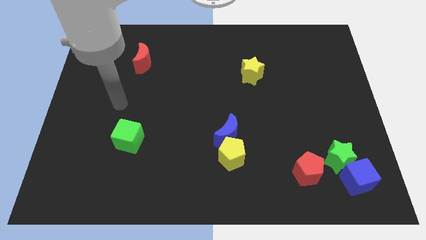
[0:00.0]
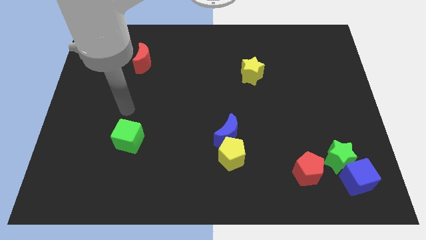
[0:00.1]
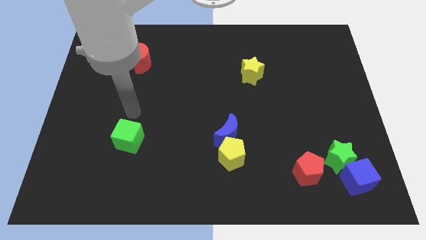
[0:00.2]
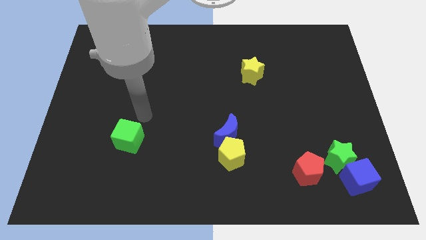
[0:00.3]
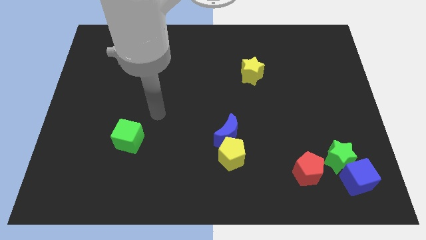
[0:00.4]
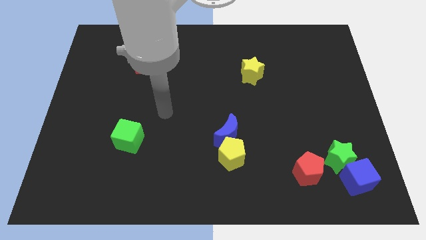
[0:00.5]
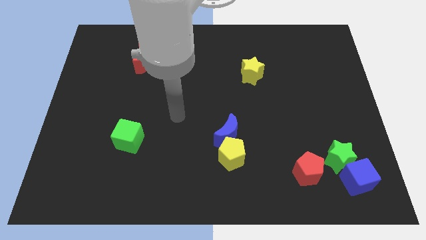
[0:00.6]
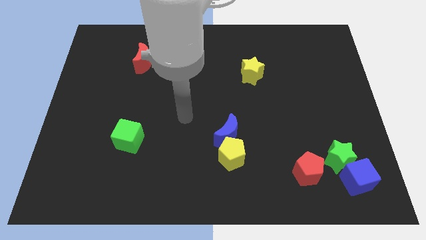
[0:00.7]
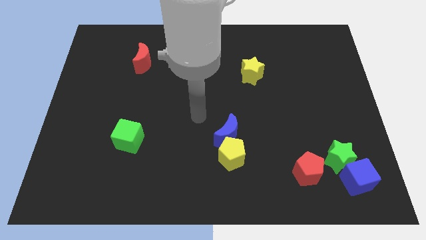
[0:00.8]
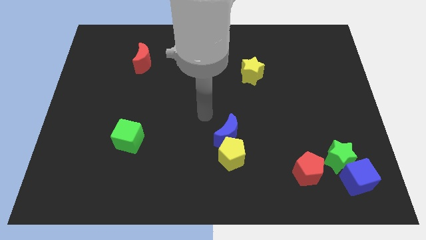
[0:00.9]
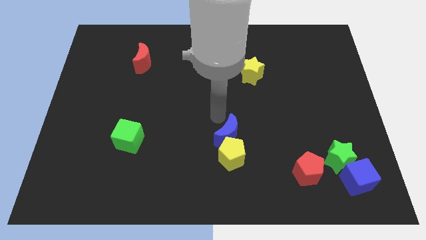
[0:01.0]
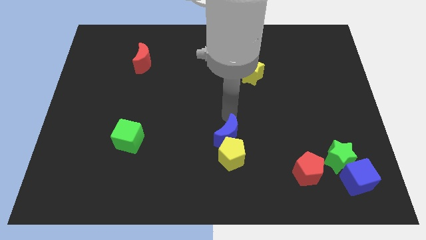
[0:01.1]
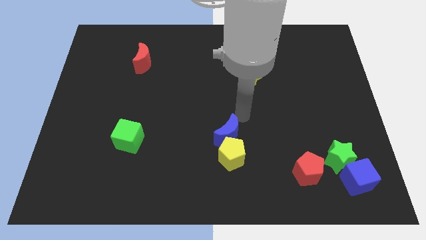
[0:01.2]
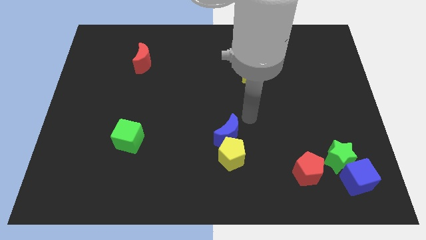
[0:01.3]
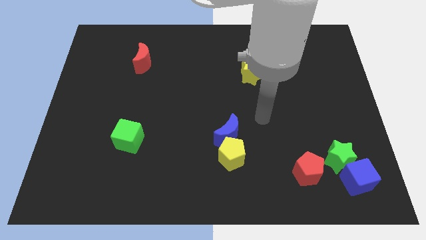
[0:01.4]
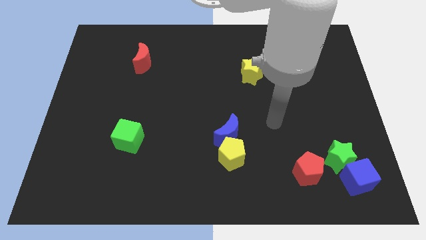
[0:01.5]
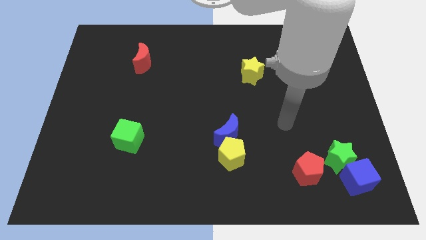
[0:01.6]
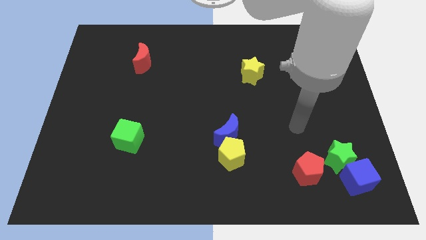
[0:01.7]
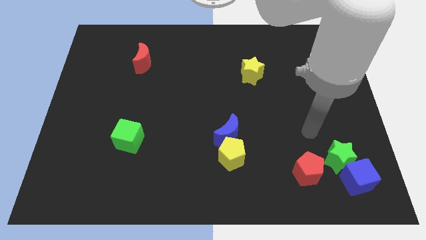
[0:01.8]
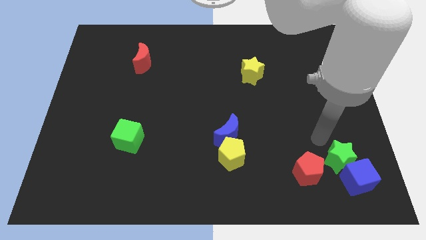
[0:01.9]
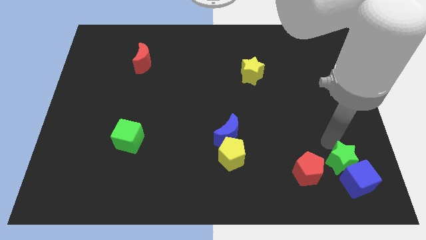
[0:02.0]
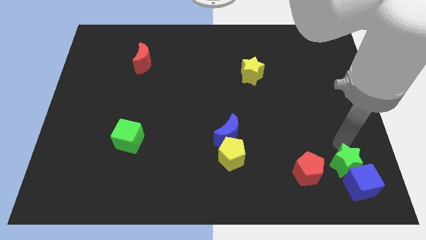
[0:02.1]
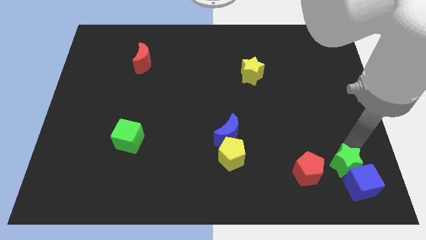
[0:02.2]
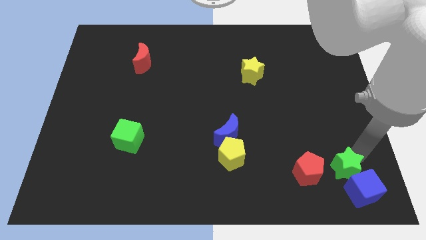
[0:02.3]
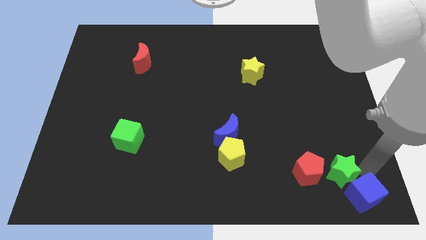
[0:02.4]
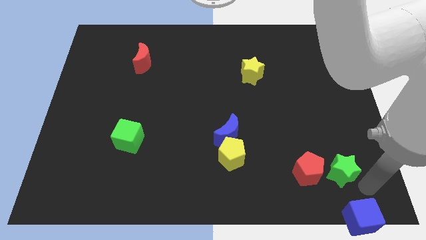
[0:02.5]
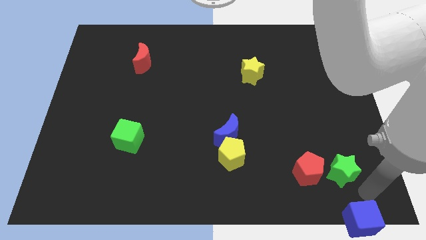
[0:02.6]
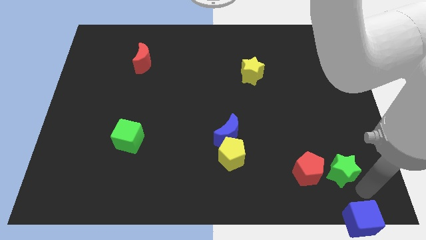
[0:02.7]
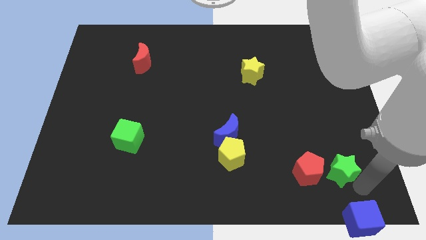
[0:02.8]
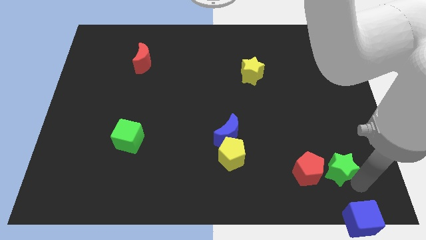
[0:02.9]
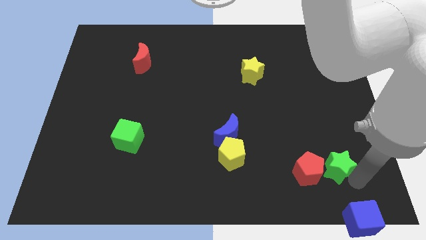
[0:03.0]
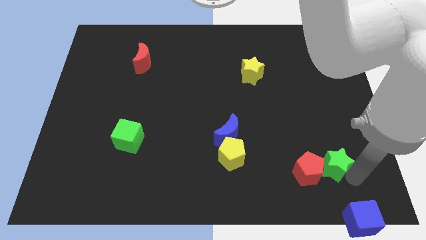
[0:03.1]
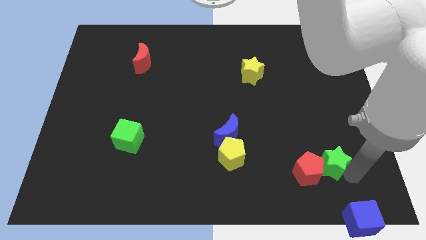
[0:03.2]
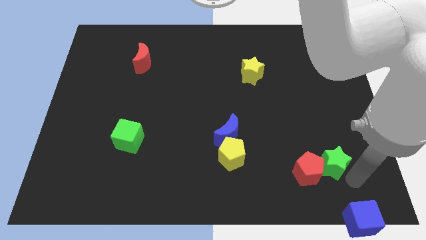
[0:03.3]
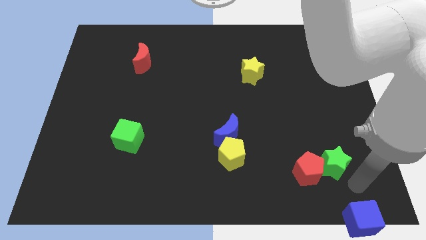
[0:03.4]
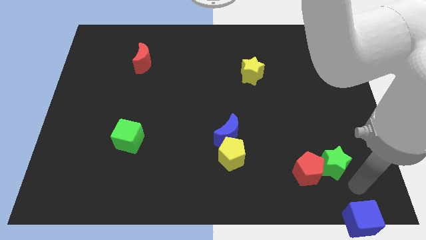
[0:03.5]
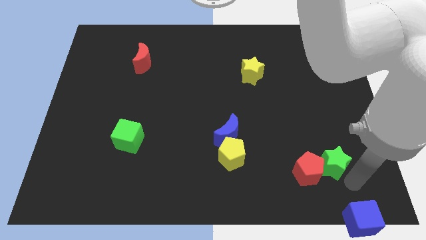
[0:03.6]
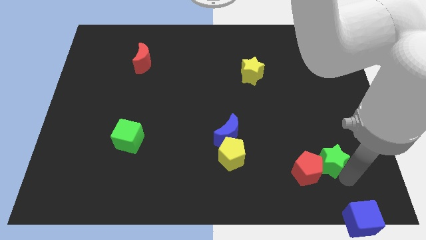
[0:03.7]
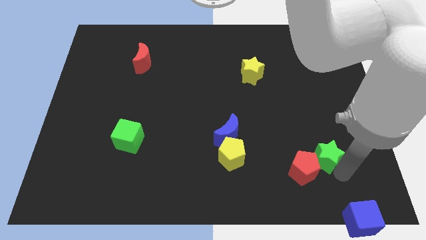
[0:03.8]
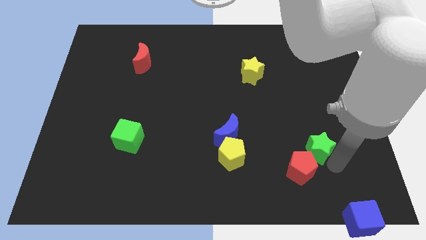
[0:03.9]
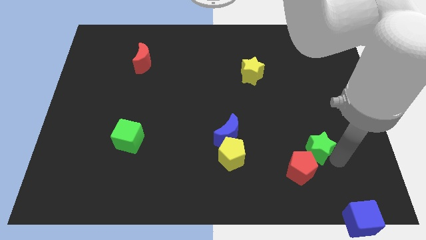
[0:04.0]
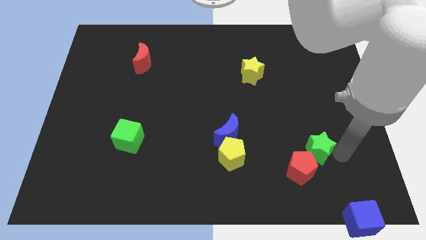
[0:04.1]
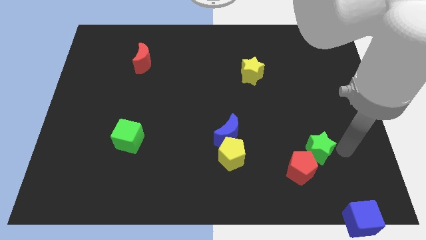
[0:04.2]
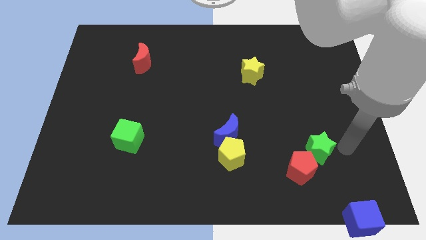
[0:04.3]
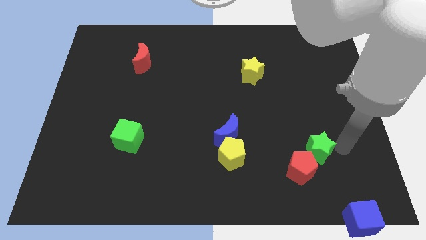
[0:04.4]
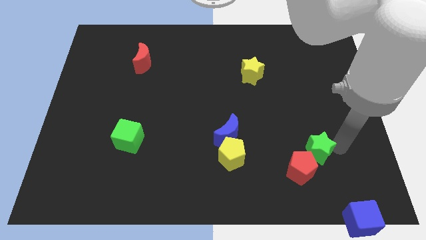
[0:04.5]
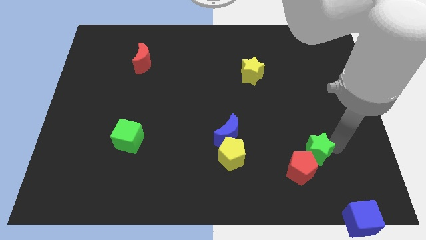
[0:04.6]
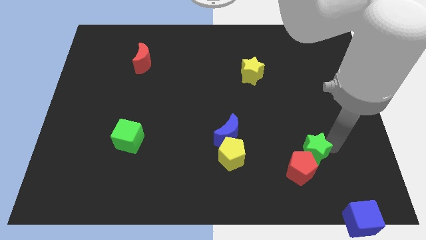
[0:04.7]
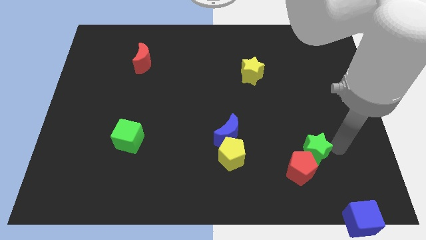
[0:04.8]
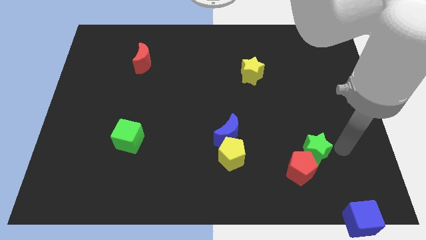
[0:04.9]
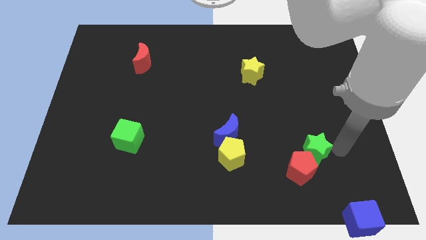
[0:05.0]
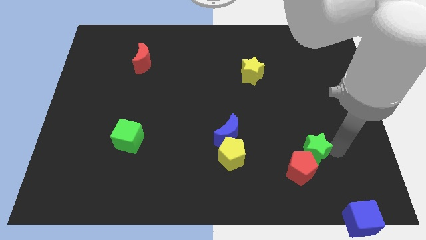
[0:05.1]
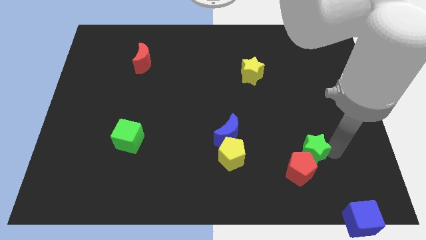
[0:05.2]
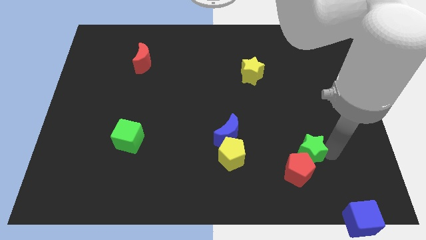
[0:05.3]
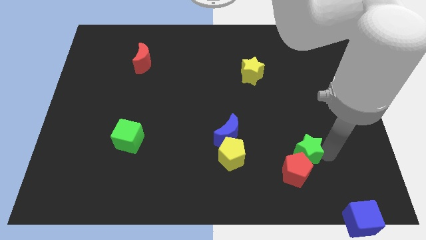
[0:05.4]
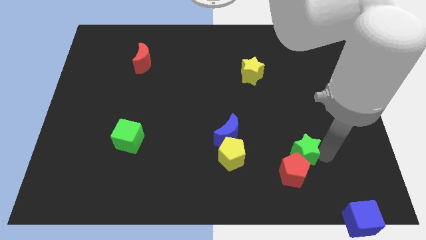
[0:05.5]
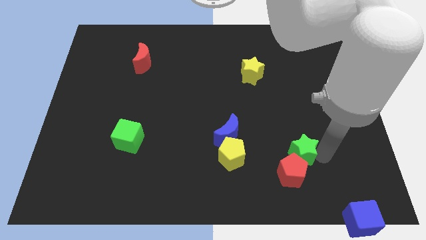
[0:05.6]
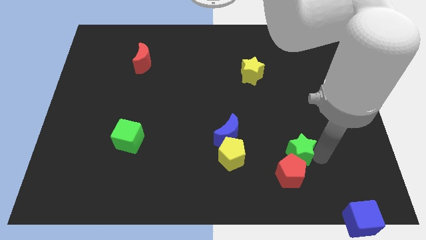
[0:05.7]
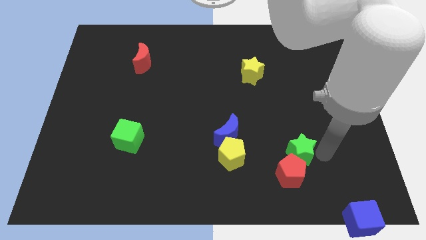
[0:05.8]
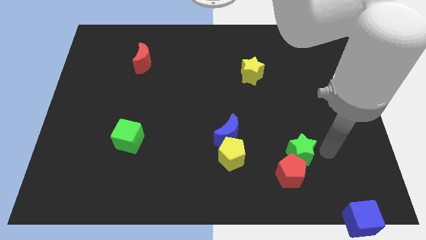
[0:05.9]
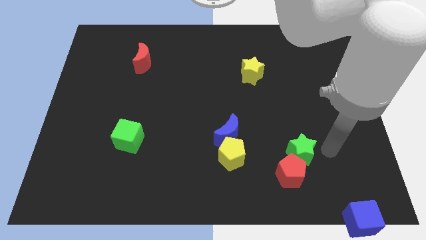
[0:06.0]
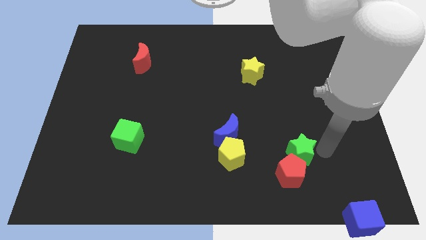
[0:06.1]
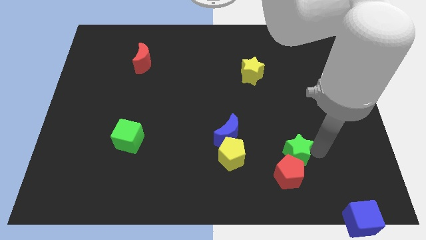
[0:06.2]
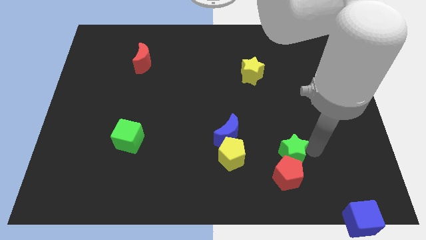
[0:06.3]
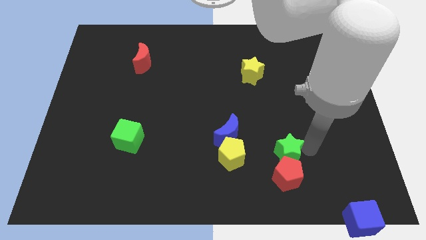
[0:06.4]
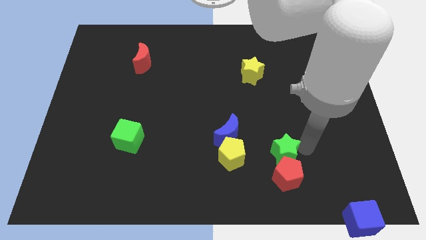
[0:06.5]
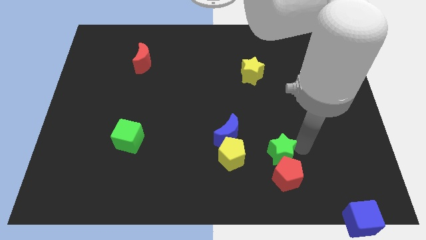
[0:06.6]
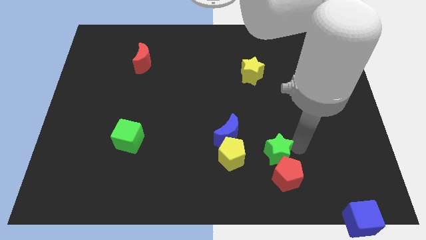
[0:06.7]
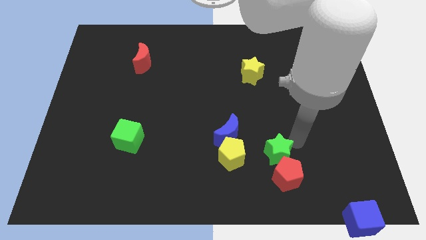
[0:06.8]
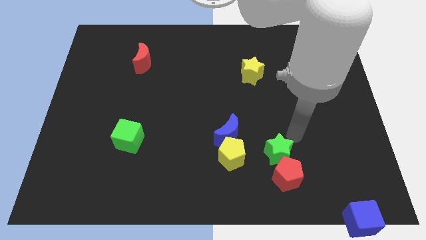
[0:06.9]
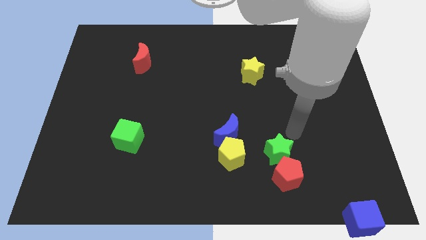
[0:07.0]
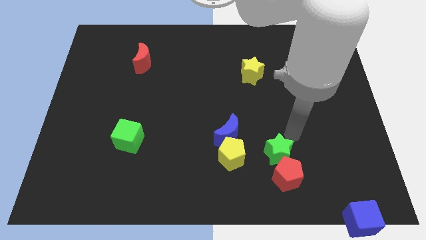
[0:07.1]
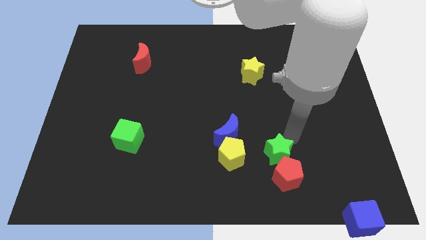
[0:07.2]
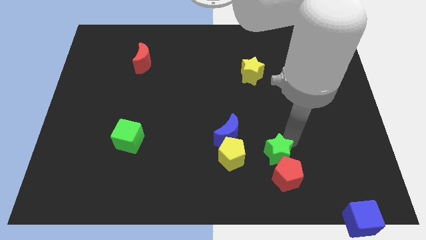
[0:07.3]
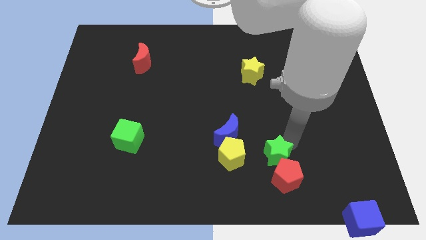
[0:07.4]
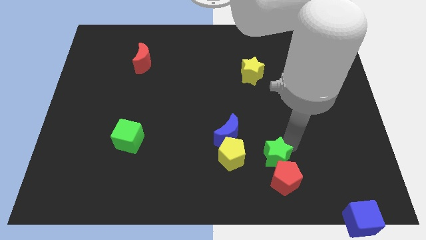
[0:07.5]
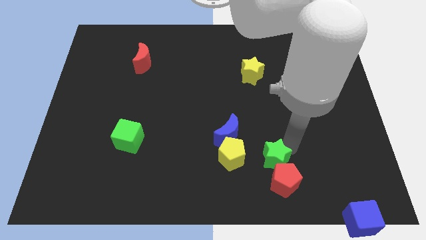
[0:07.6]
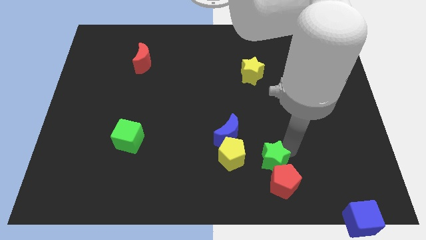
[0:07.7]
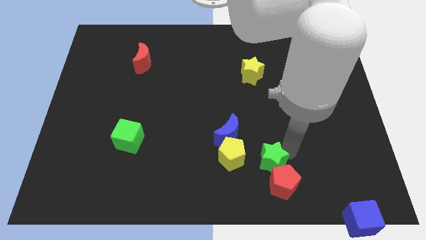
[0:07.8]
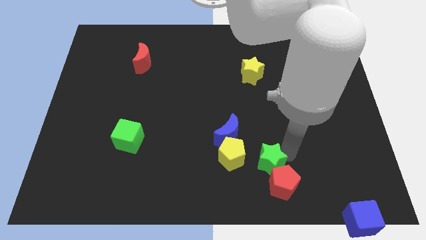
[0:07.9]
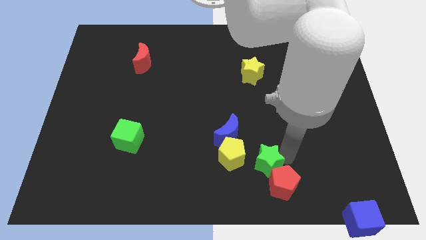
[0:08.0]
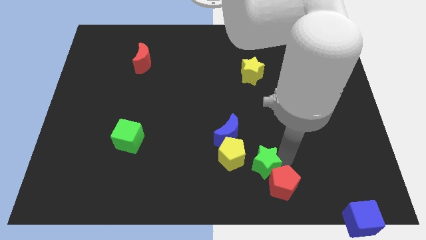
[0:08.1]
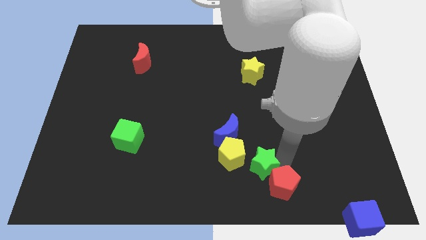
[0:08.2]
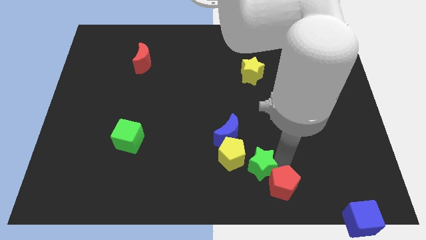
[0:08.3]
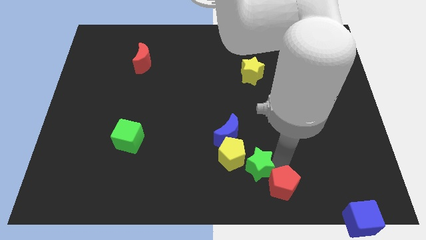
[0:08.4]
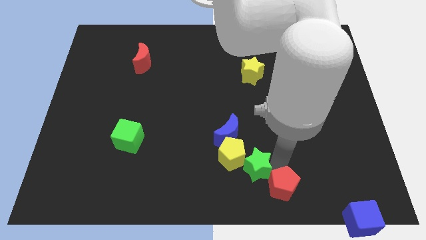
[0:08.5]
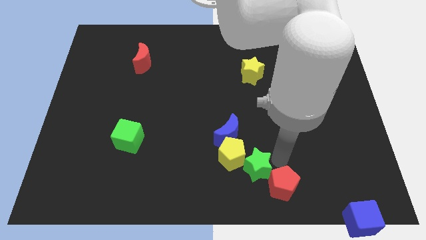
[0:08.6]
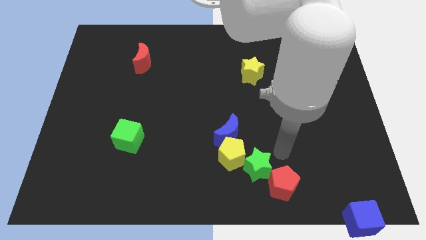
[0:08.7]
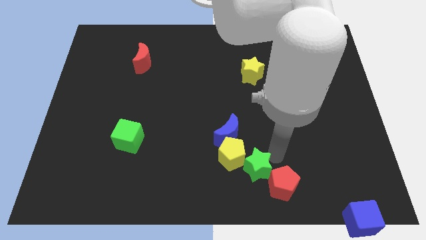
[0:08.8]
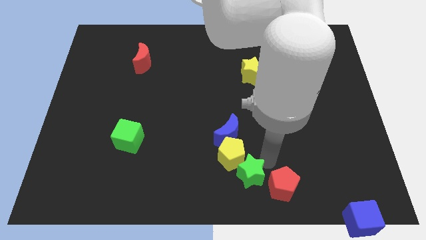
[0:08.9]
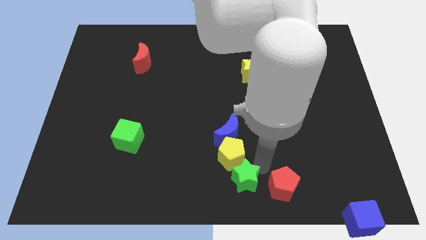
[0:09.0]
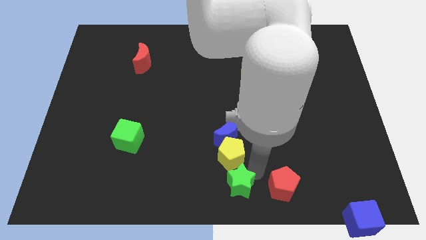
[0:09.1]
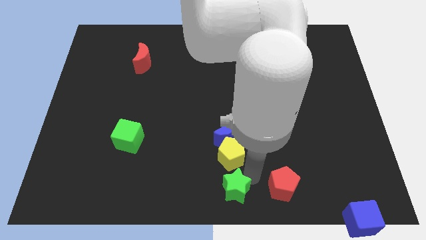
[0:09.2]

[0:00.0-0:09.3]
push the green star left
